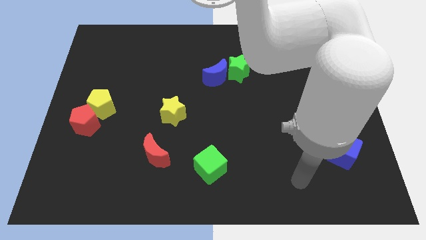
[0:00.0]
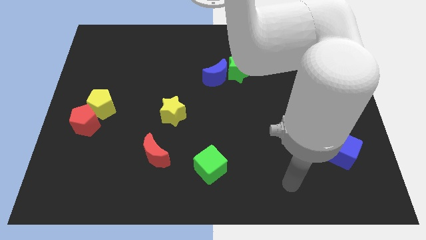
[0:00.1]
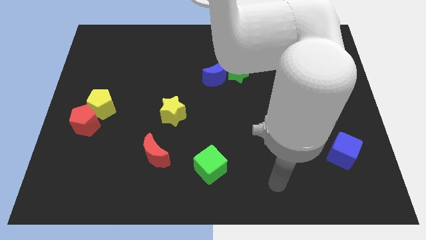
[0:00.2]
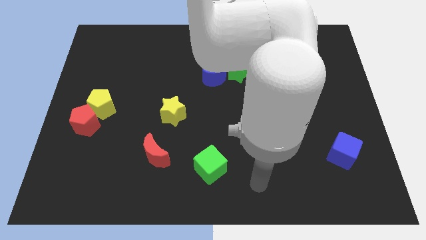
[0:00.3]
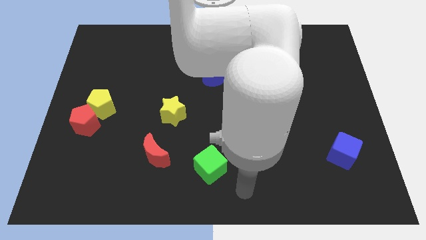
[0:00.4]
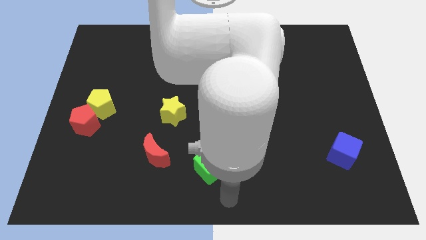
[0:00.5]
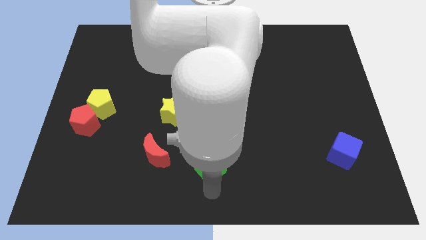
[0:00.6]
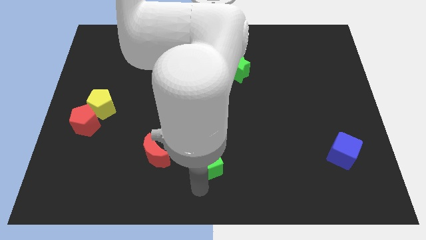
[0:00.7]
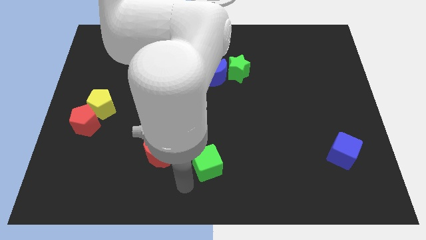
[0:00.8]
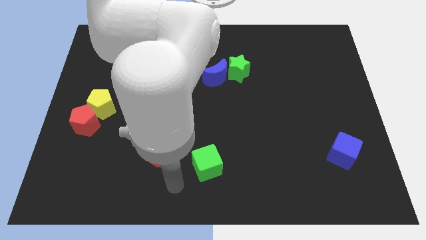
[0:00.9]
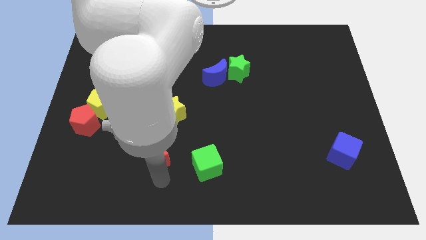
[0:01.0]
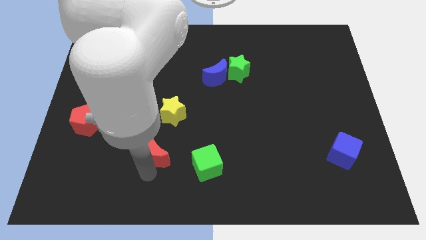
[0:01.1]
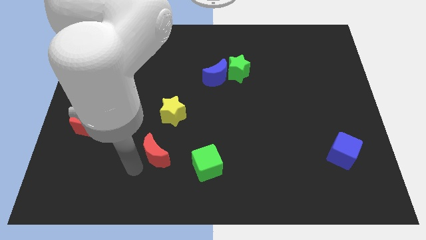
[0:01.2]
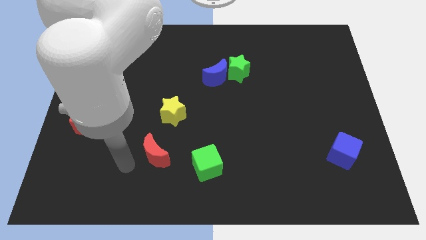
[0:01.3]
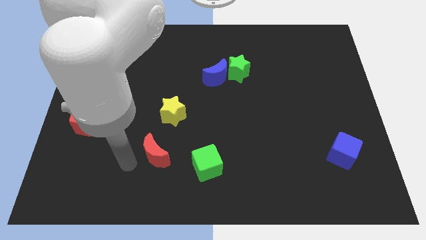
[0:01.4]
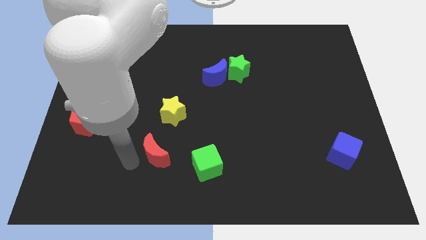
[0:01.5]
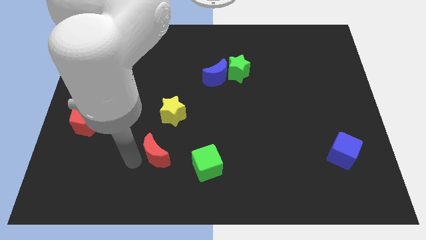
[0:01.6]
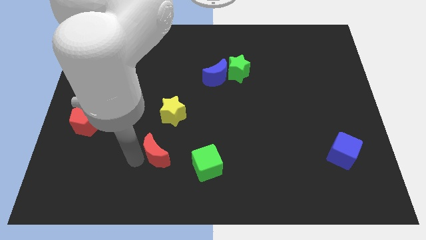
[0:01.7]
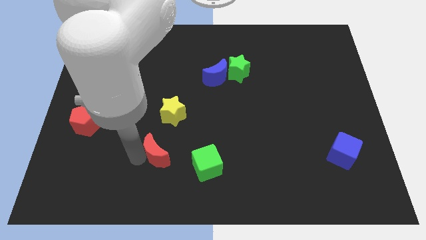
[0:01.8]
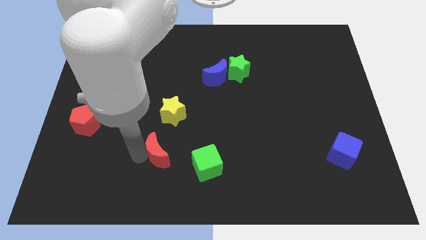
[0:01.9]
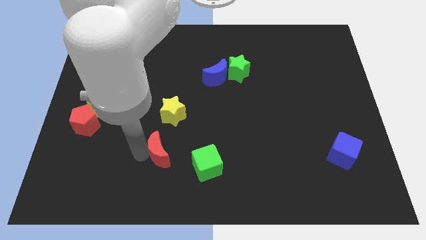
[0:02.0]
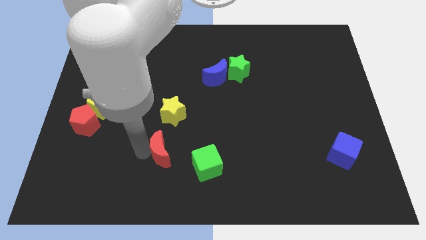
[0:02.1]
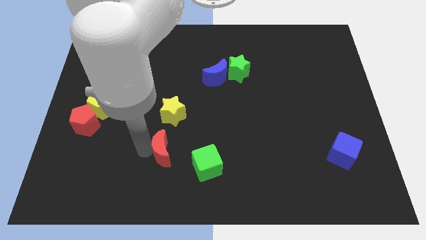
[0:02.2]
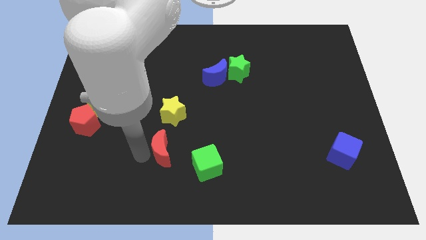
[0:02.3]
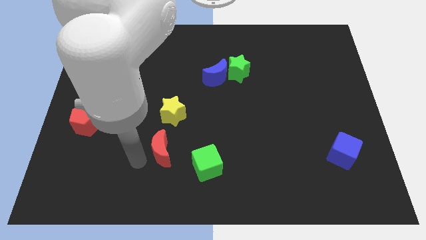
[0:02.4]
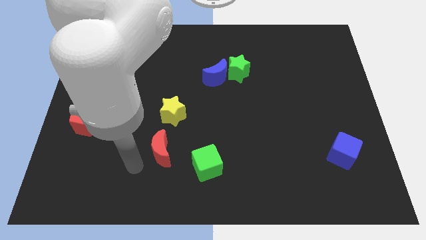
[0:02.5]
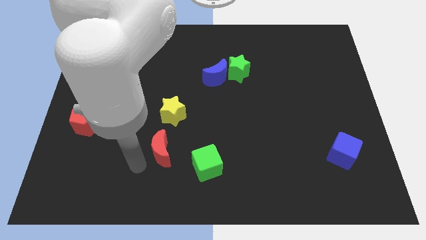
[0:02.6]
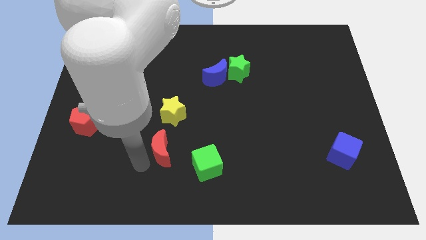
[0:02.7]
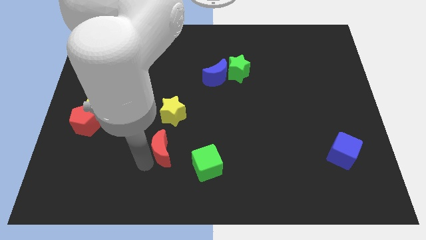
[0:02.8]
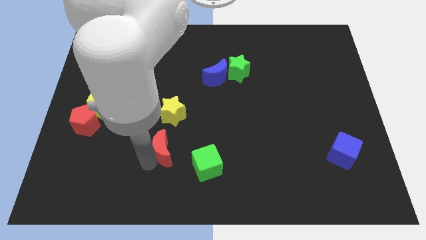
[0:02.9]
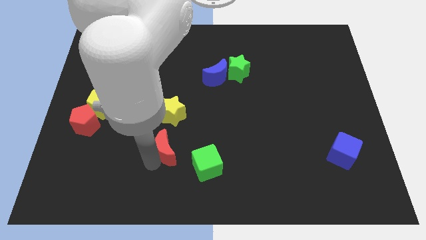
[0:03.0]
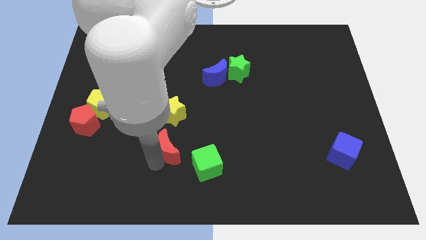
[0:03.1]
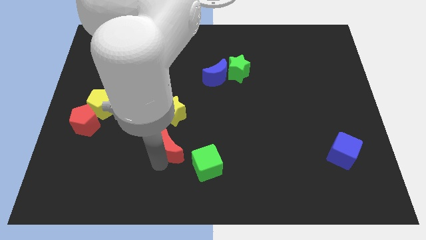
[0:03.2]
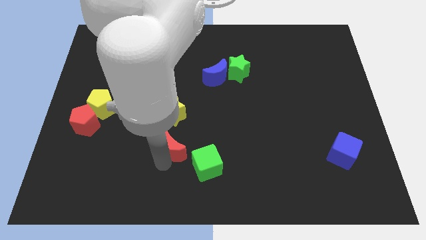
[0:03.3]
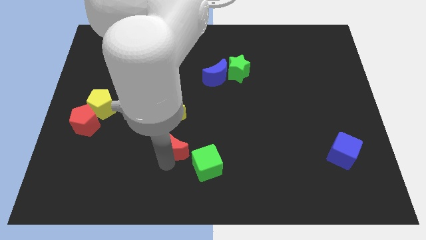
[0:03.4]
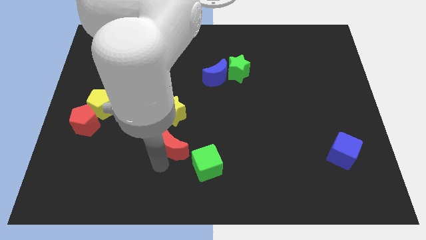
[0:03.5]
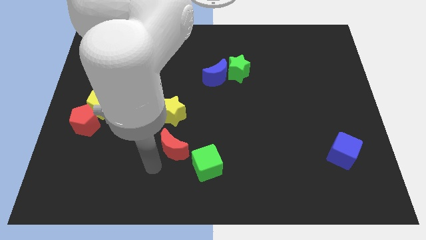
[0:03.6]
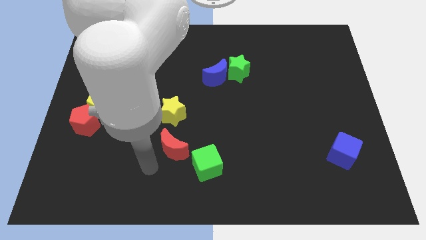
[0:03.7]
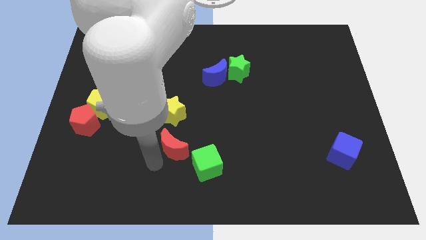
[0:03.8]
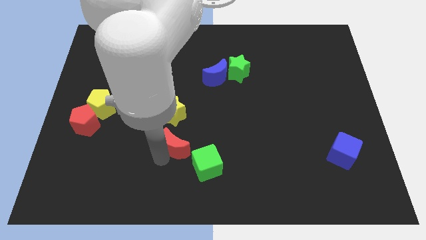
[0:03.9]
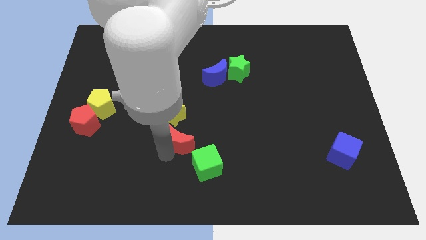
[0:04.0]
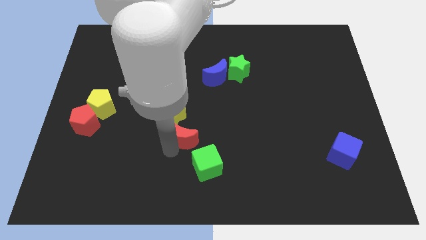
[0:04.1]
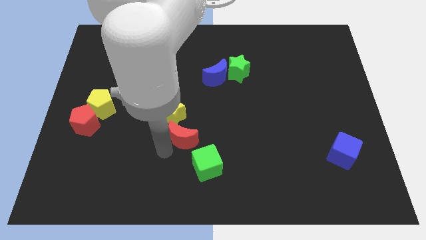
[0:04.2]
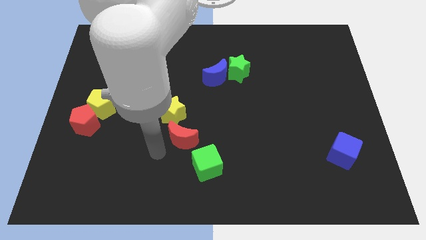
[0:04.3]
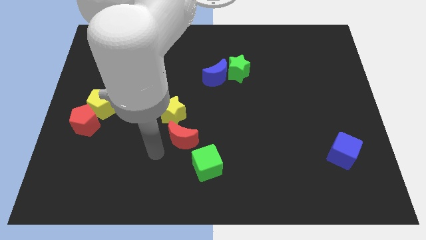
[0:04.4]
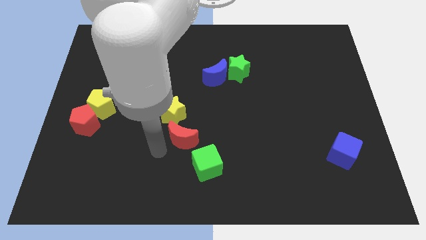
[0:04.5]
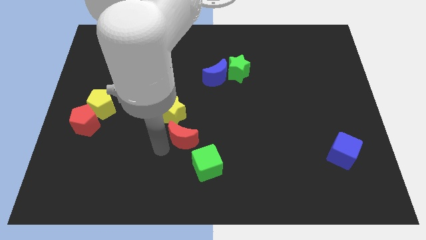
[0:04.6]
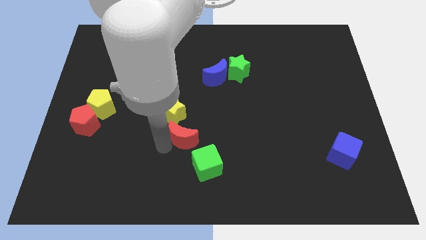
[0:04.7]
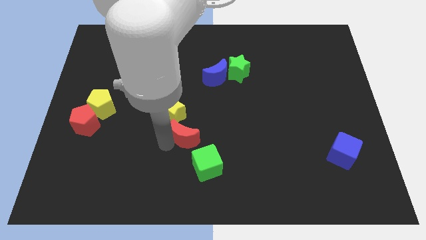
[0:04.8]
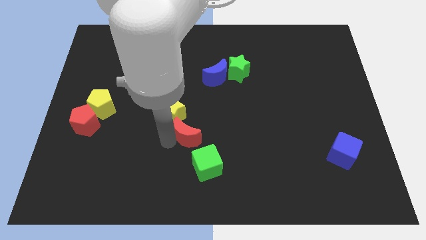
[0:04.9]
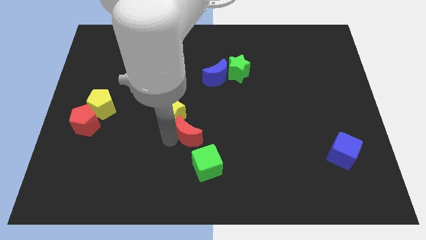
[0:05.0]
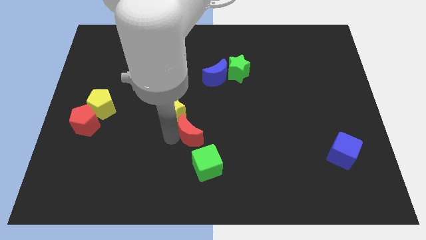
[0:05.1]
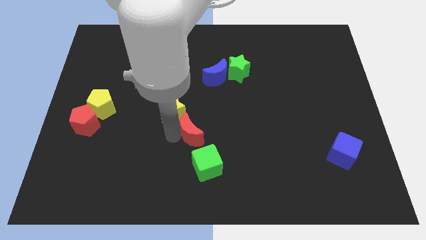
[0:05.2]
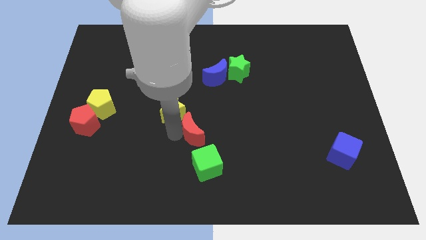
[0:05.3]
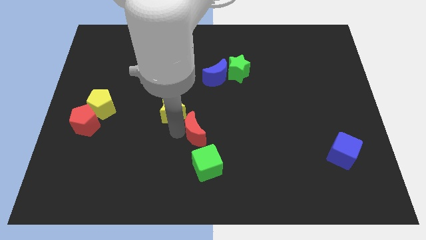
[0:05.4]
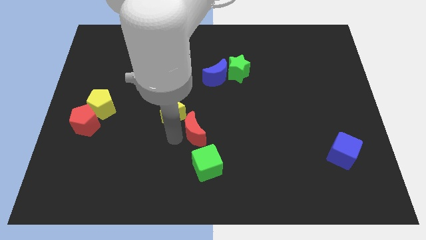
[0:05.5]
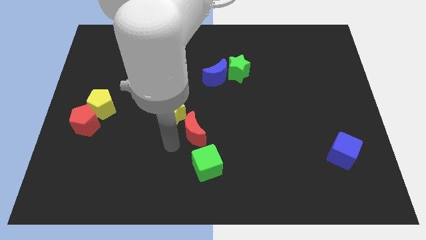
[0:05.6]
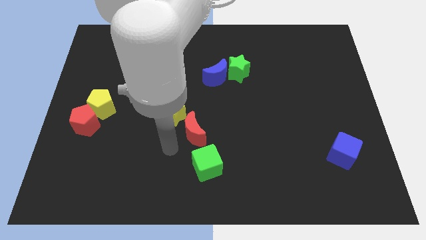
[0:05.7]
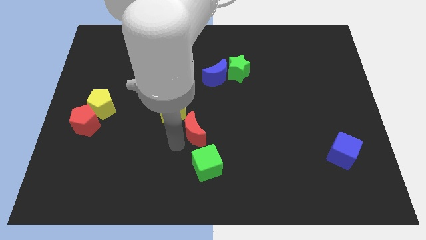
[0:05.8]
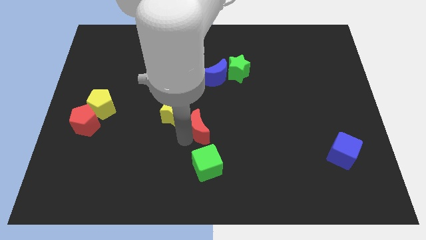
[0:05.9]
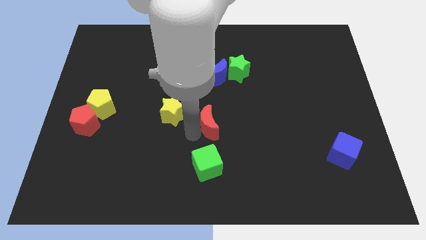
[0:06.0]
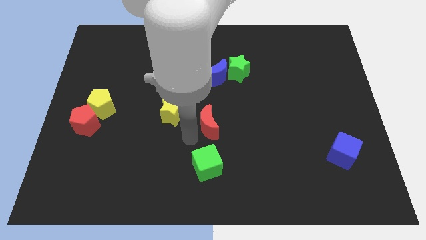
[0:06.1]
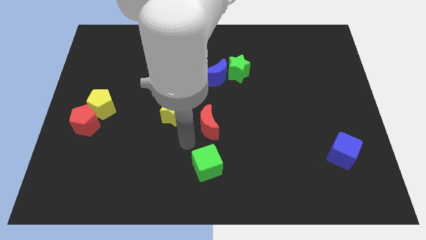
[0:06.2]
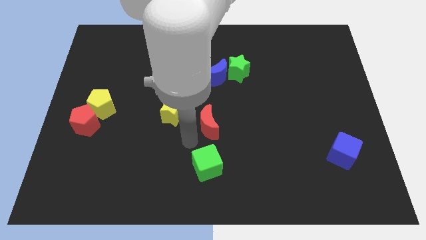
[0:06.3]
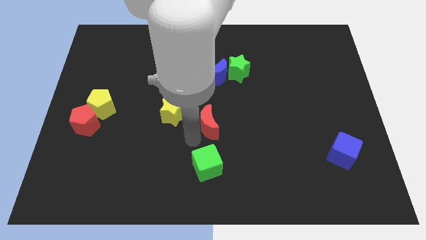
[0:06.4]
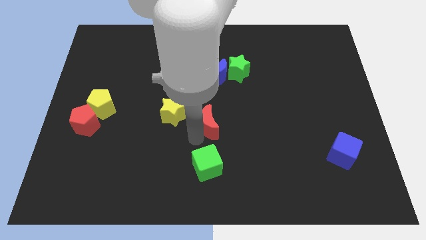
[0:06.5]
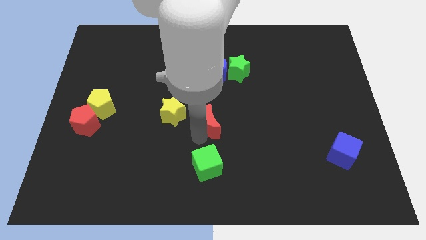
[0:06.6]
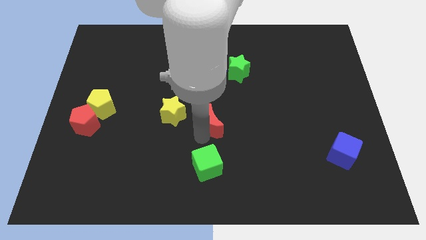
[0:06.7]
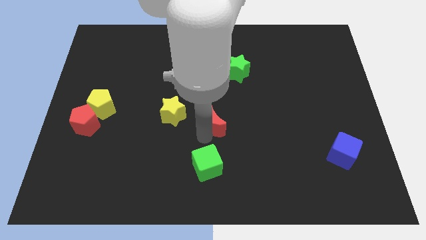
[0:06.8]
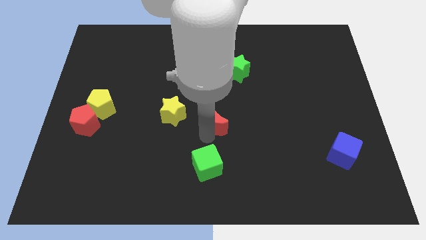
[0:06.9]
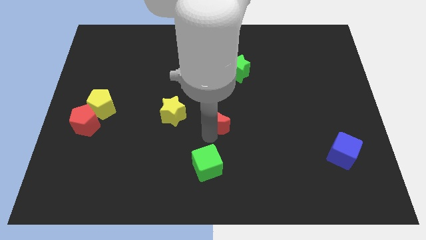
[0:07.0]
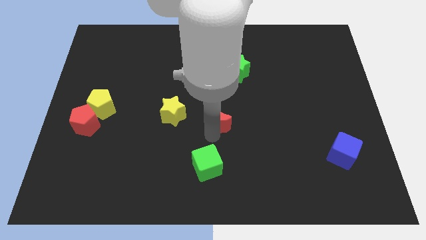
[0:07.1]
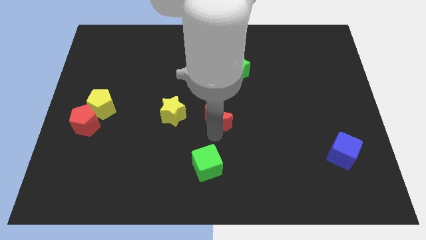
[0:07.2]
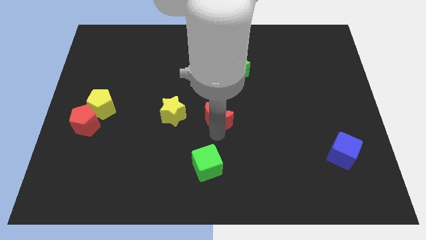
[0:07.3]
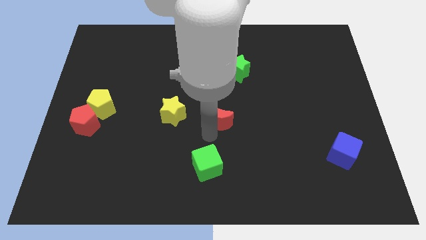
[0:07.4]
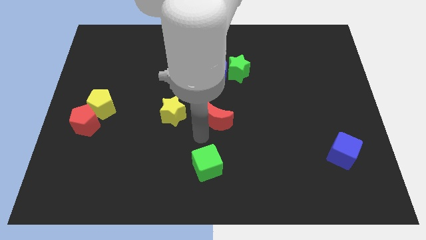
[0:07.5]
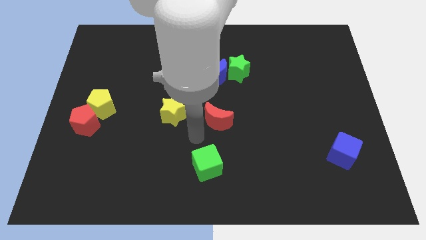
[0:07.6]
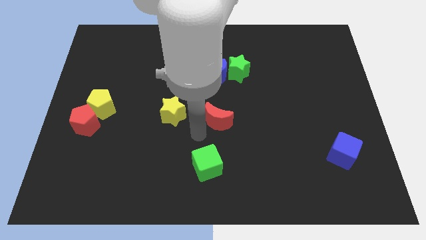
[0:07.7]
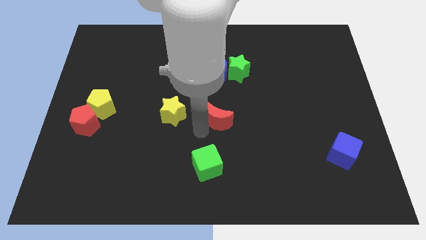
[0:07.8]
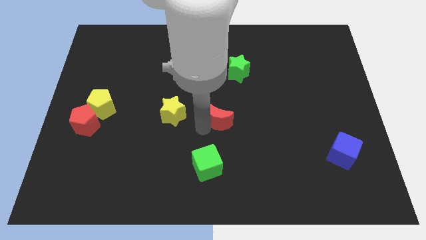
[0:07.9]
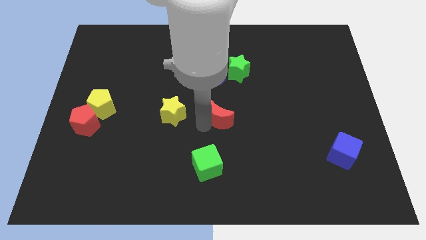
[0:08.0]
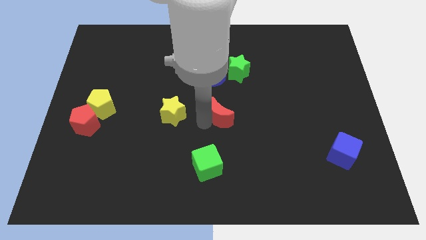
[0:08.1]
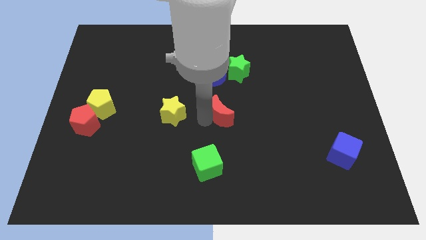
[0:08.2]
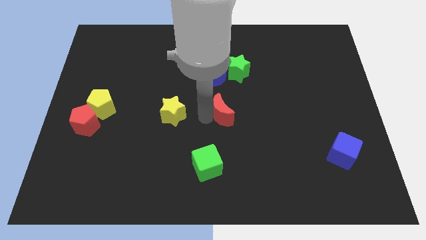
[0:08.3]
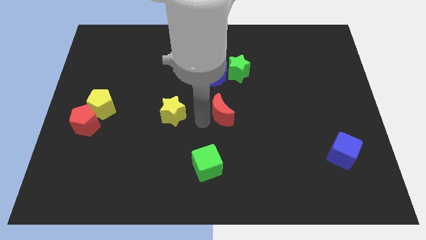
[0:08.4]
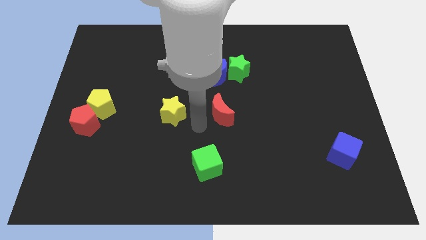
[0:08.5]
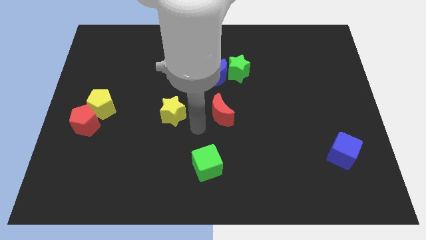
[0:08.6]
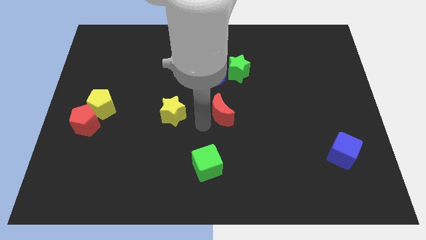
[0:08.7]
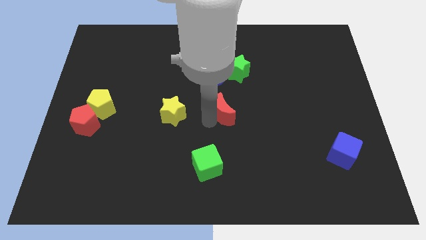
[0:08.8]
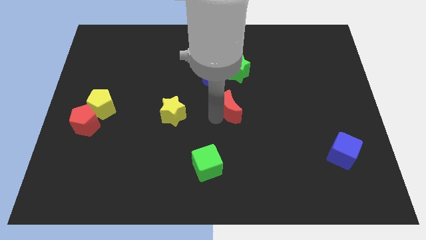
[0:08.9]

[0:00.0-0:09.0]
move the red moon diagonally up and right
